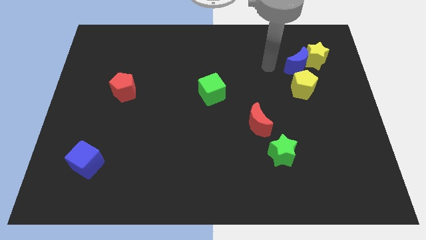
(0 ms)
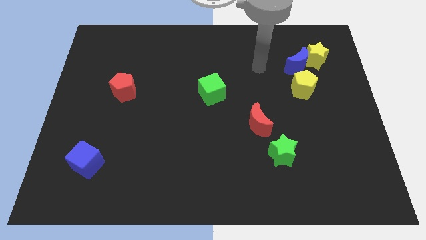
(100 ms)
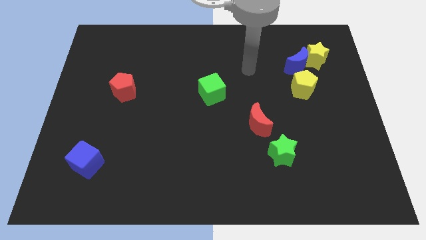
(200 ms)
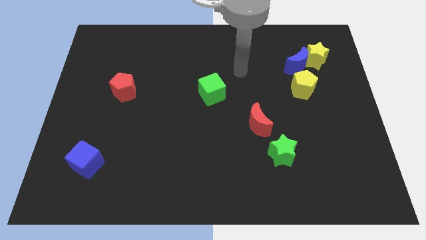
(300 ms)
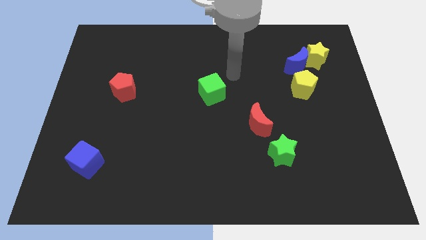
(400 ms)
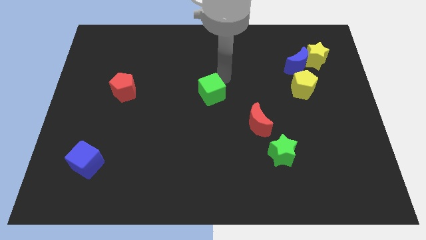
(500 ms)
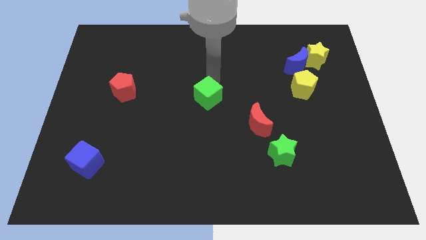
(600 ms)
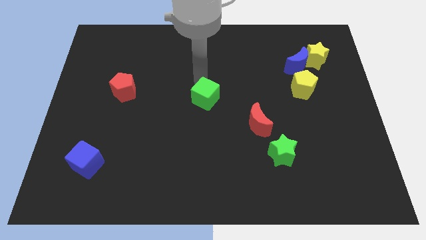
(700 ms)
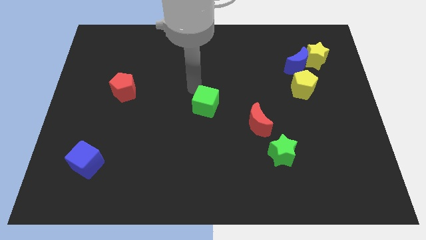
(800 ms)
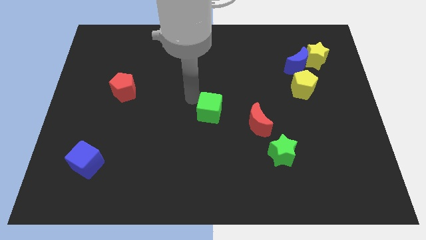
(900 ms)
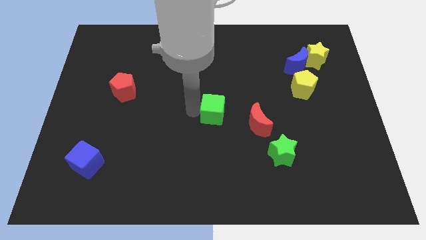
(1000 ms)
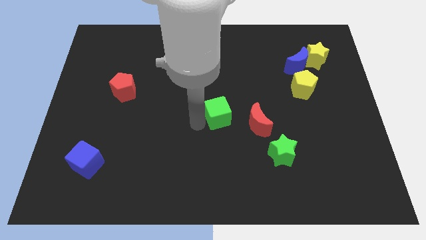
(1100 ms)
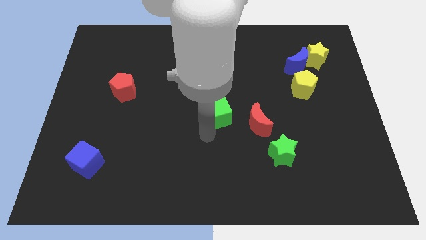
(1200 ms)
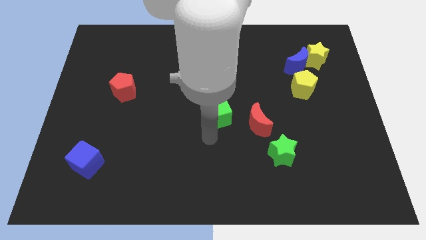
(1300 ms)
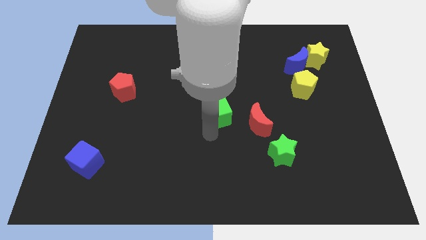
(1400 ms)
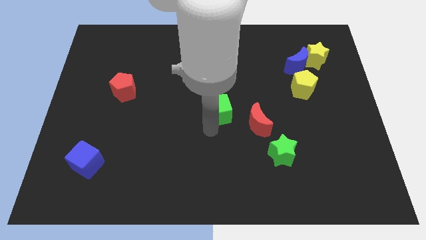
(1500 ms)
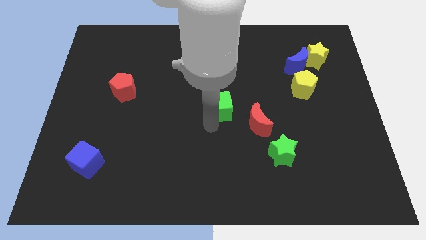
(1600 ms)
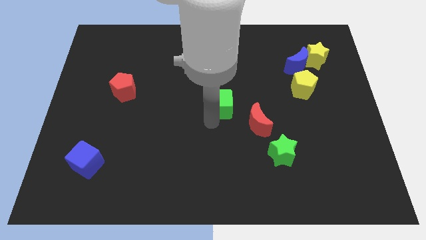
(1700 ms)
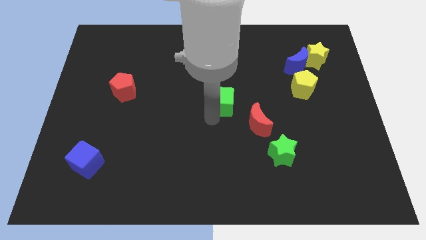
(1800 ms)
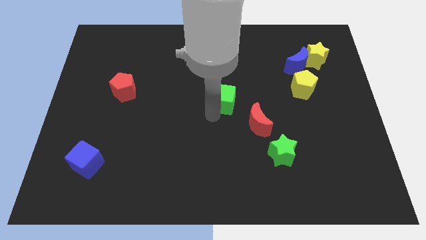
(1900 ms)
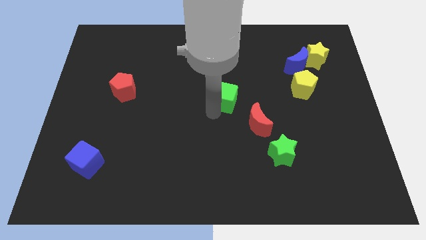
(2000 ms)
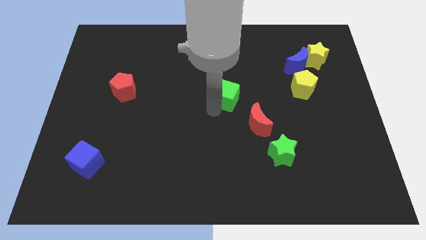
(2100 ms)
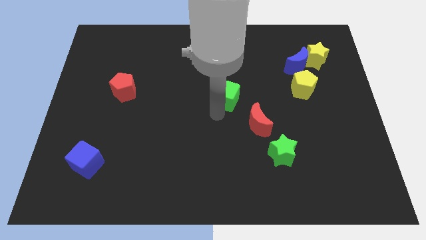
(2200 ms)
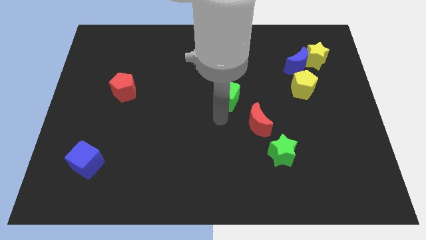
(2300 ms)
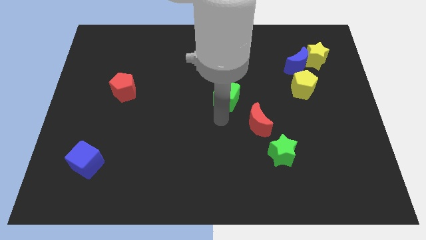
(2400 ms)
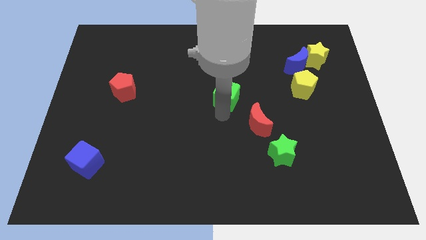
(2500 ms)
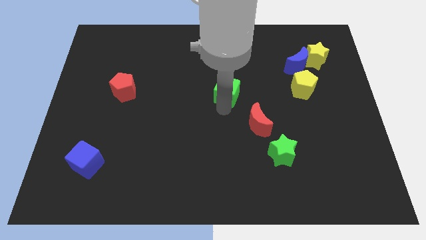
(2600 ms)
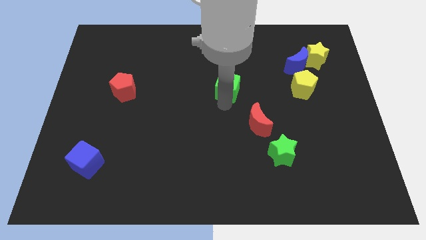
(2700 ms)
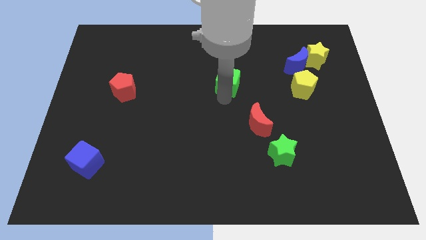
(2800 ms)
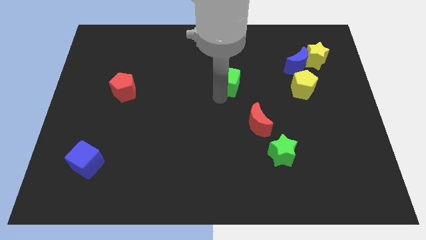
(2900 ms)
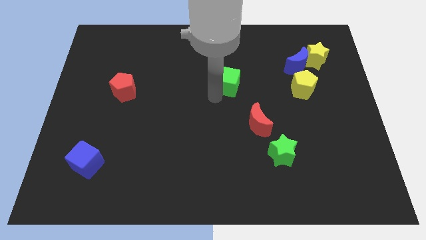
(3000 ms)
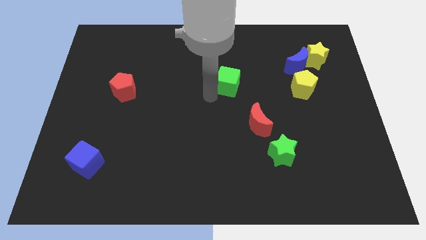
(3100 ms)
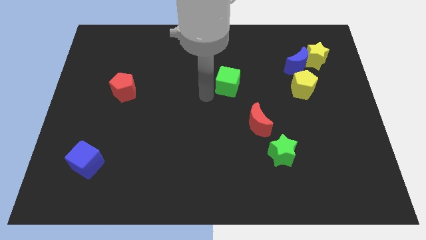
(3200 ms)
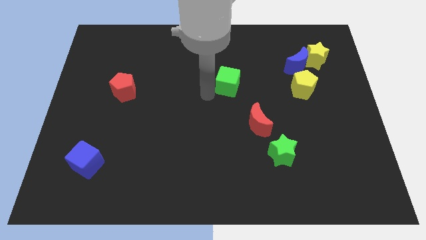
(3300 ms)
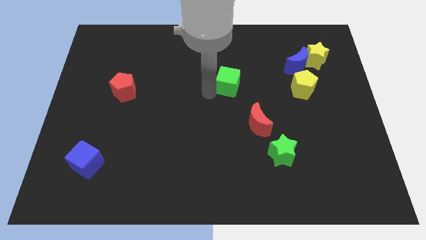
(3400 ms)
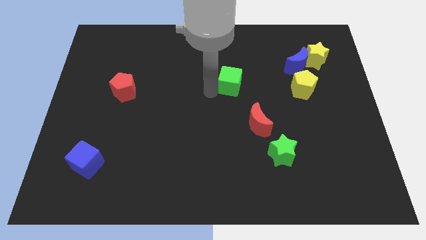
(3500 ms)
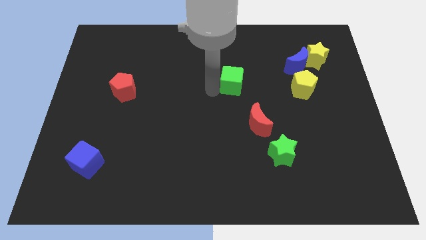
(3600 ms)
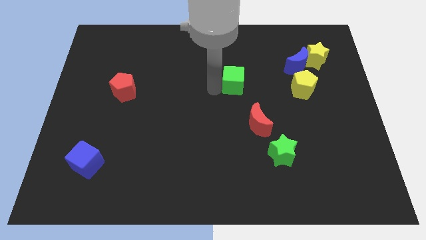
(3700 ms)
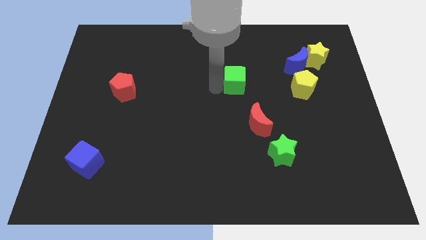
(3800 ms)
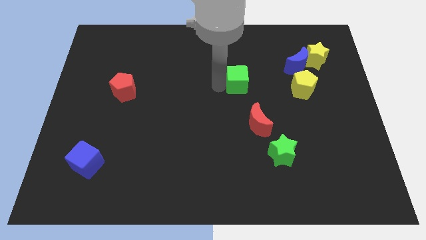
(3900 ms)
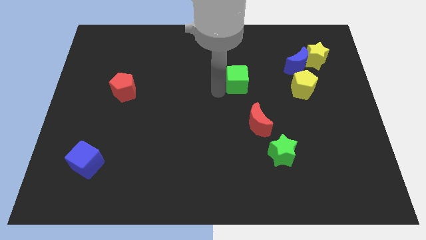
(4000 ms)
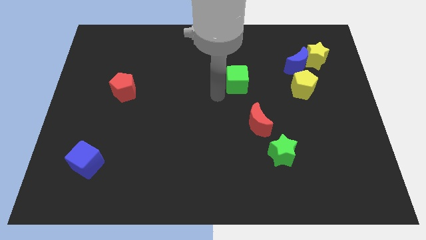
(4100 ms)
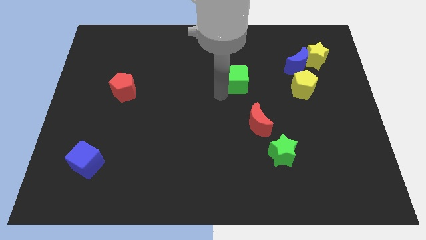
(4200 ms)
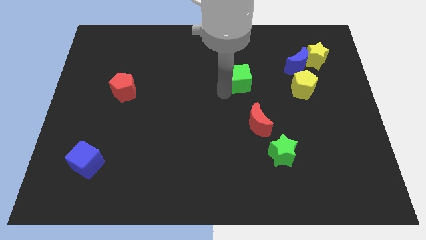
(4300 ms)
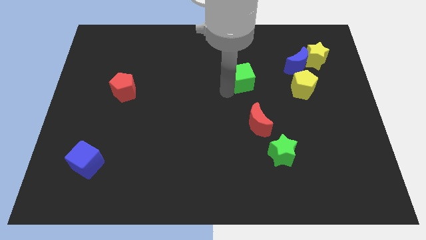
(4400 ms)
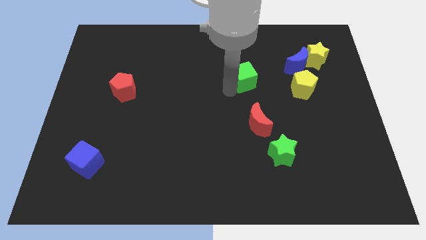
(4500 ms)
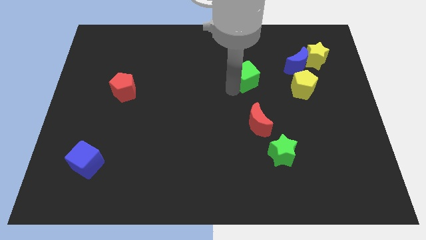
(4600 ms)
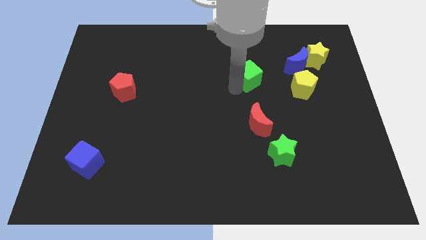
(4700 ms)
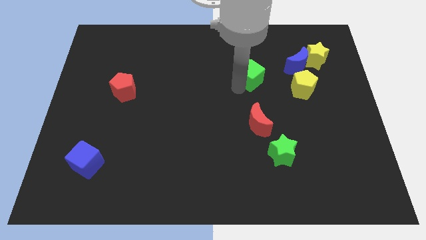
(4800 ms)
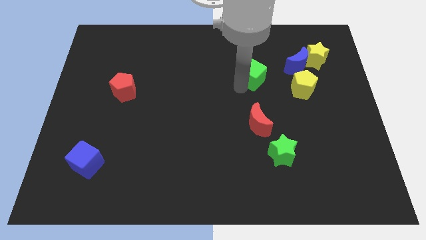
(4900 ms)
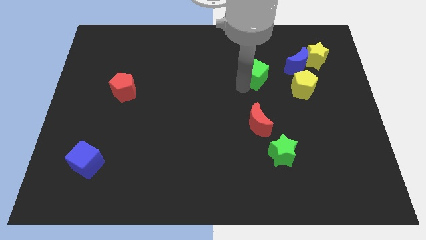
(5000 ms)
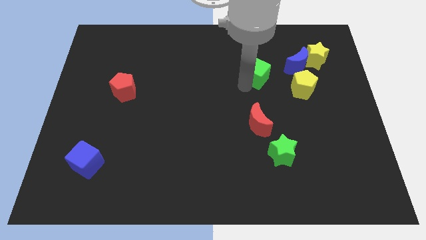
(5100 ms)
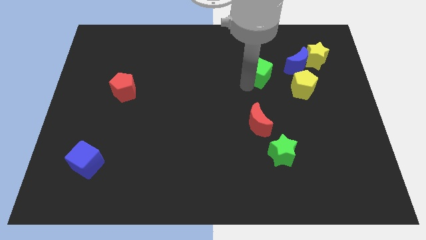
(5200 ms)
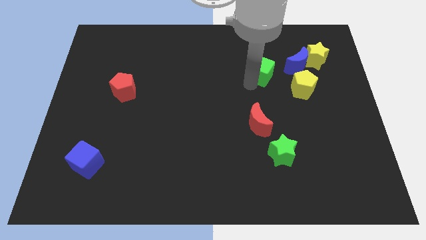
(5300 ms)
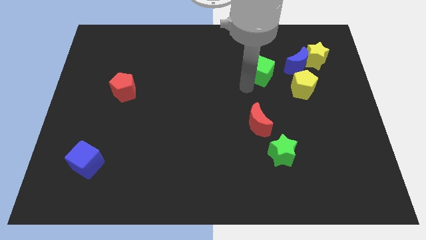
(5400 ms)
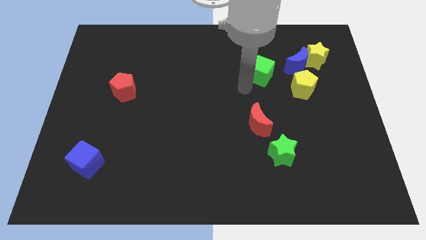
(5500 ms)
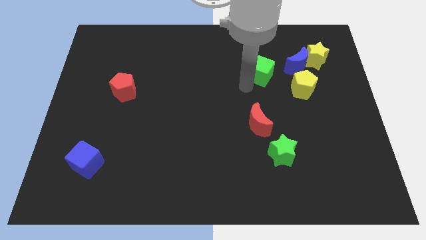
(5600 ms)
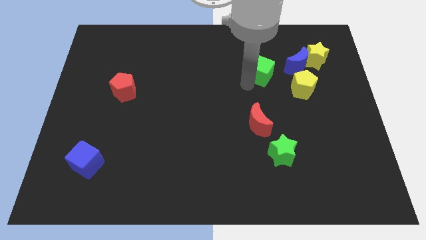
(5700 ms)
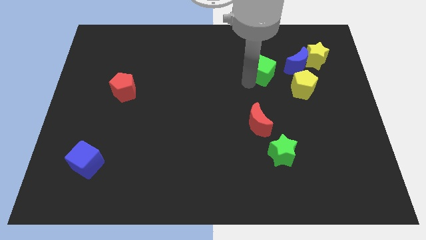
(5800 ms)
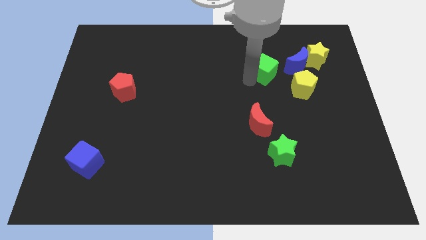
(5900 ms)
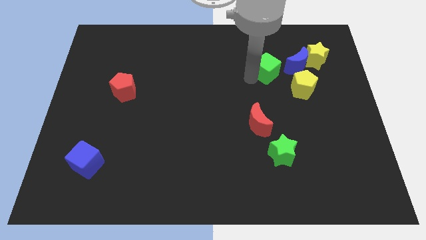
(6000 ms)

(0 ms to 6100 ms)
push the green cube left of the yellow star

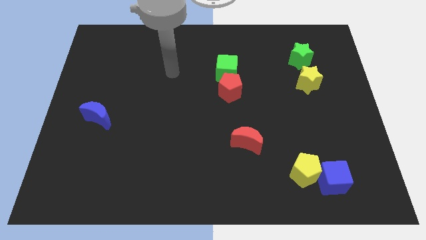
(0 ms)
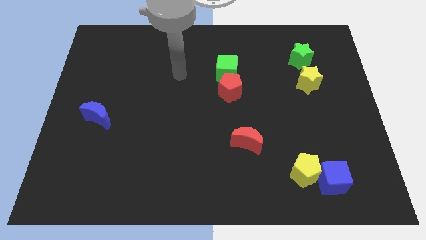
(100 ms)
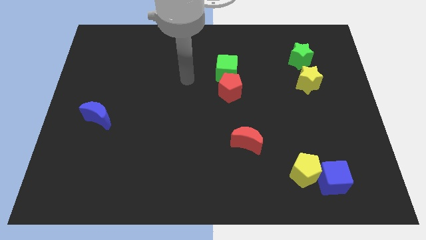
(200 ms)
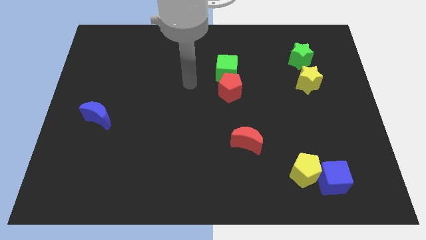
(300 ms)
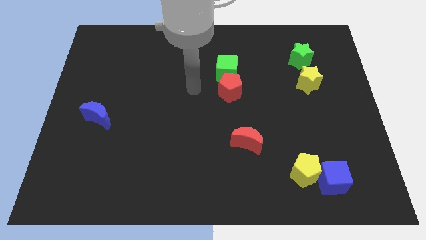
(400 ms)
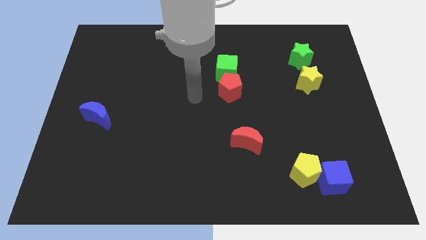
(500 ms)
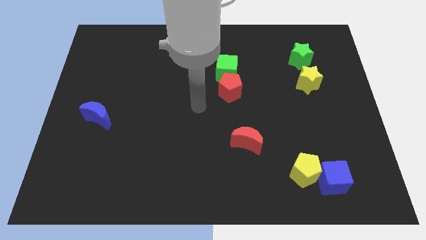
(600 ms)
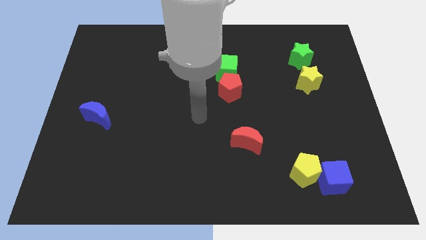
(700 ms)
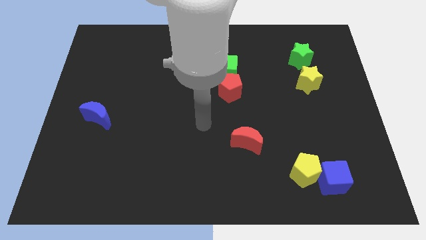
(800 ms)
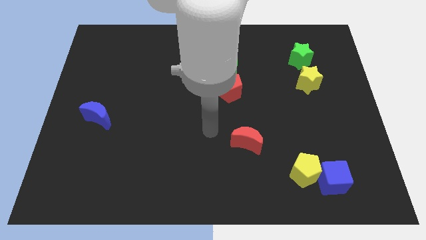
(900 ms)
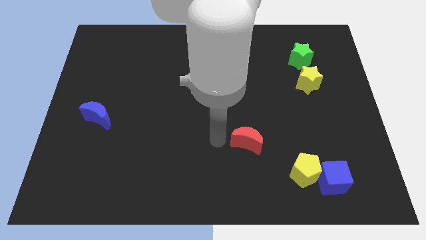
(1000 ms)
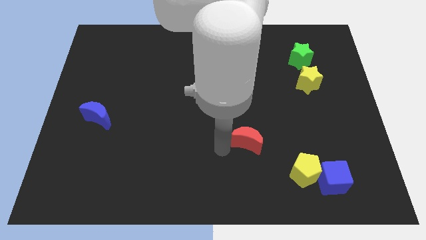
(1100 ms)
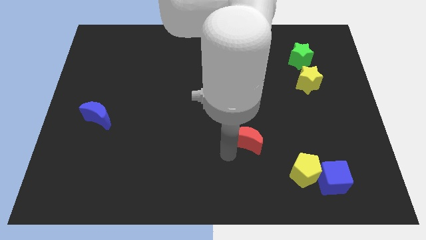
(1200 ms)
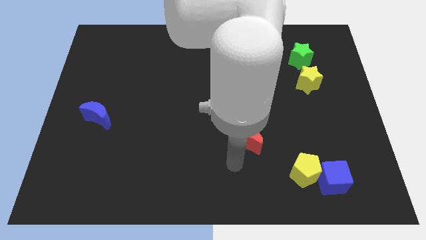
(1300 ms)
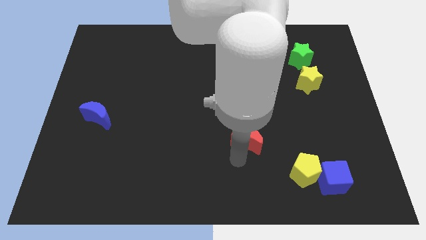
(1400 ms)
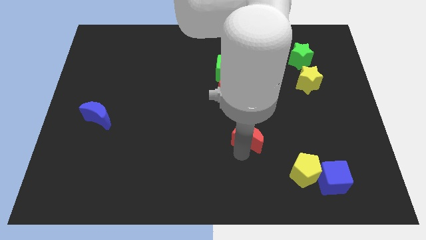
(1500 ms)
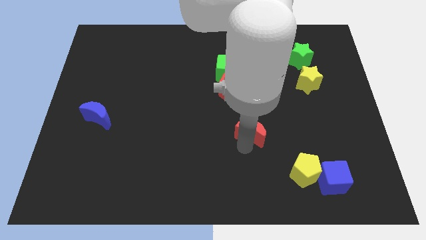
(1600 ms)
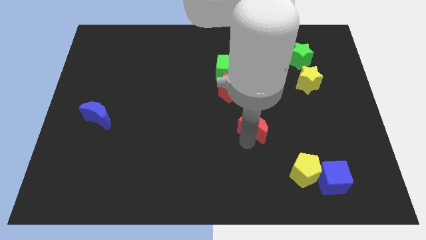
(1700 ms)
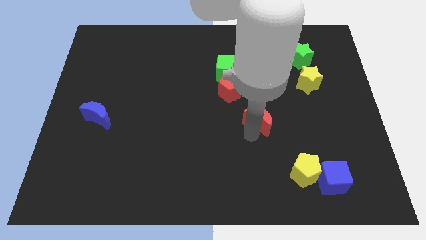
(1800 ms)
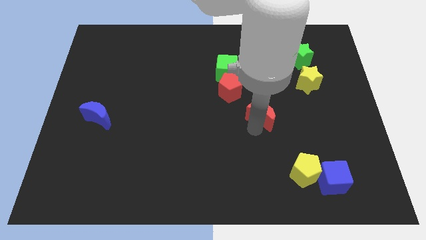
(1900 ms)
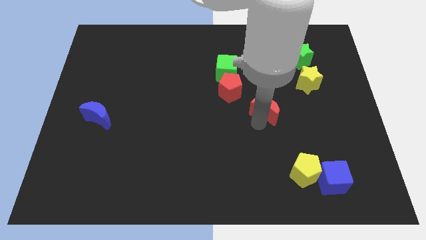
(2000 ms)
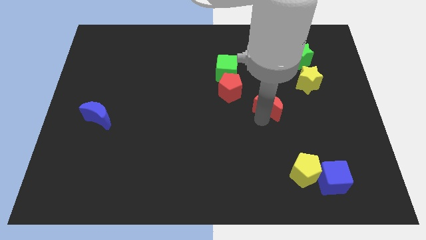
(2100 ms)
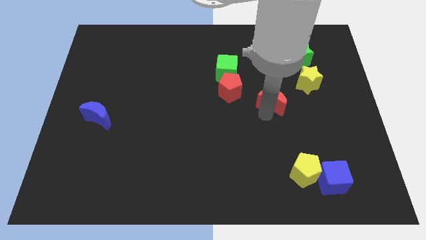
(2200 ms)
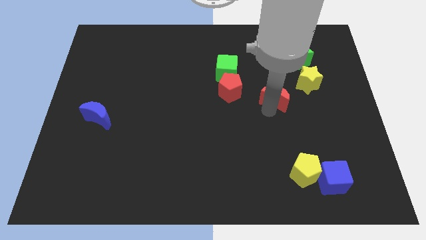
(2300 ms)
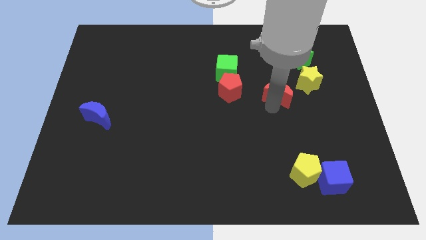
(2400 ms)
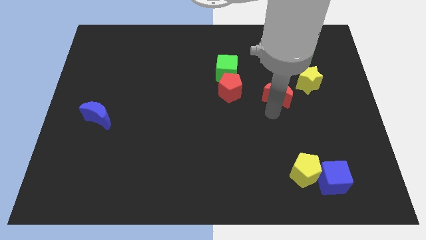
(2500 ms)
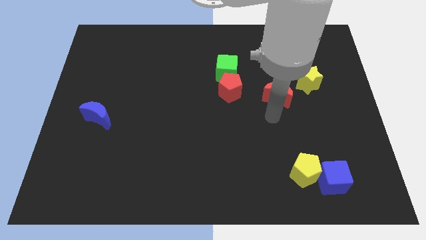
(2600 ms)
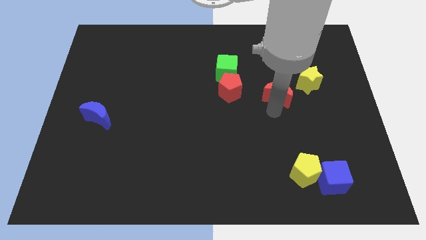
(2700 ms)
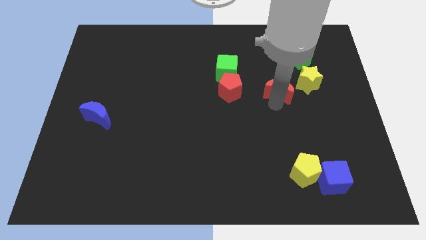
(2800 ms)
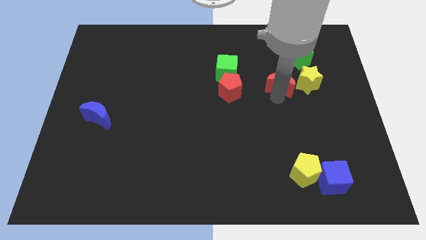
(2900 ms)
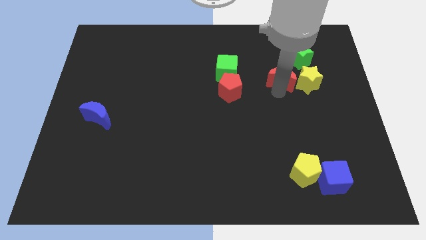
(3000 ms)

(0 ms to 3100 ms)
push the red moon to the top left side of the yellow star
